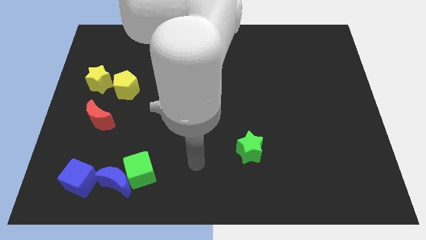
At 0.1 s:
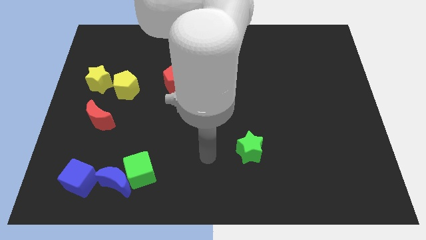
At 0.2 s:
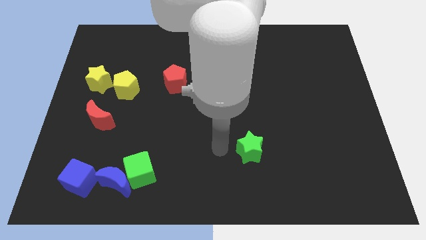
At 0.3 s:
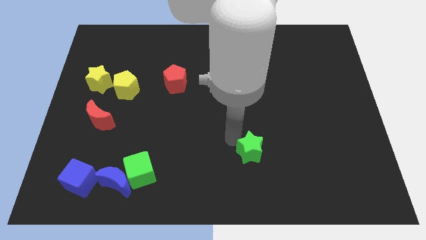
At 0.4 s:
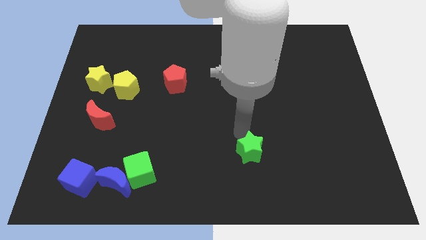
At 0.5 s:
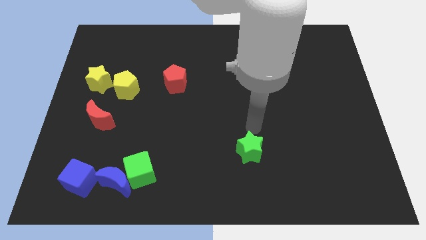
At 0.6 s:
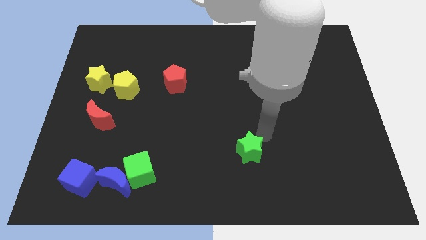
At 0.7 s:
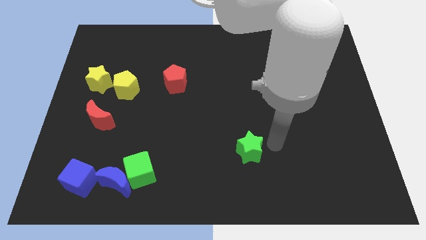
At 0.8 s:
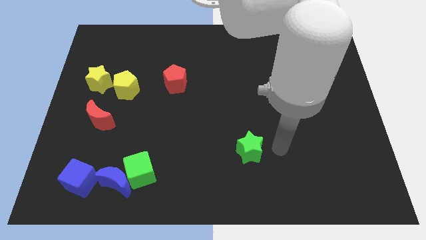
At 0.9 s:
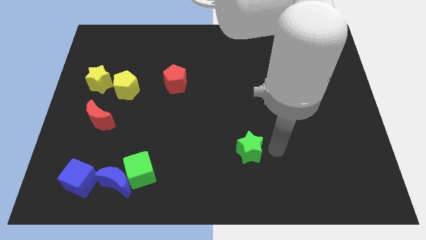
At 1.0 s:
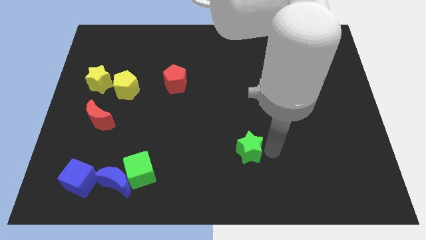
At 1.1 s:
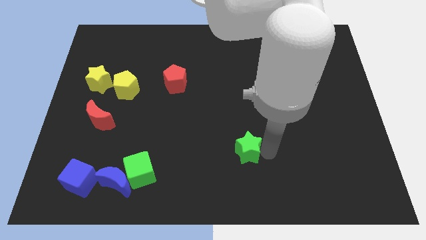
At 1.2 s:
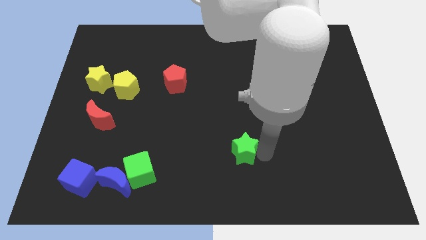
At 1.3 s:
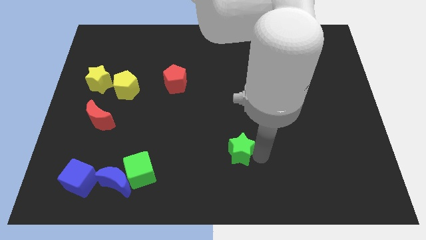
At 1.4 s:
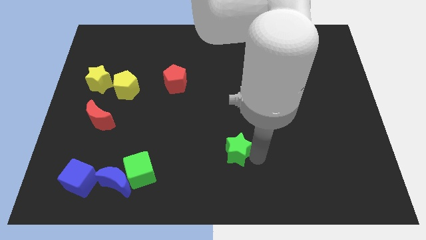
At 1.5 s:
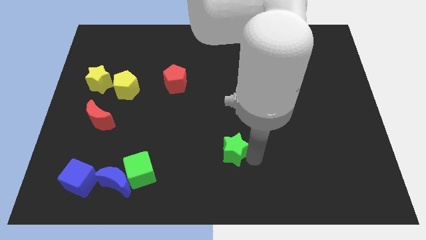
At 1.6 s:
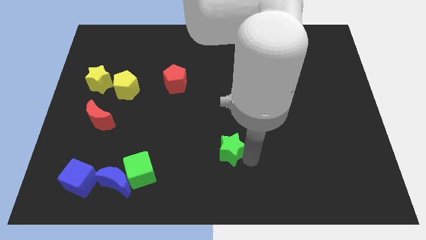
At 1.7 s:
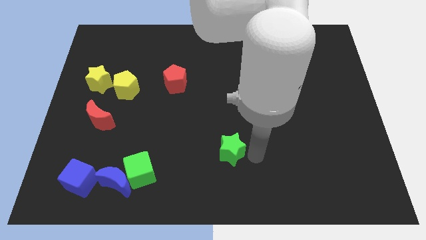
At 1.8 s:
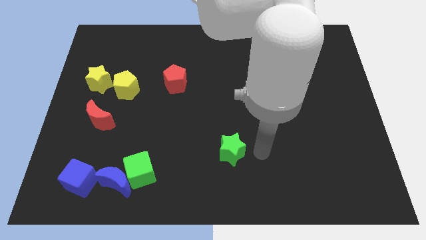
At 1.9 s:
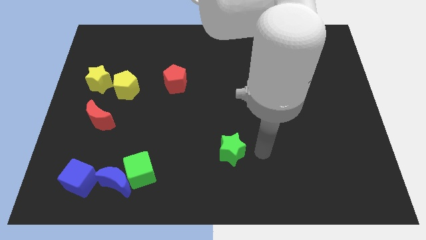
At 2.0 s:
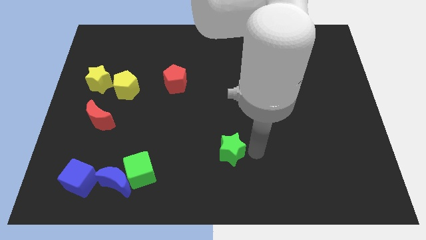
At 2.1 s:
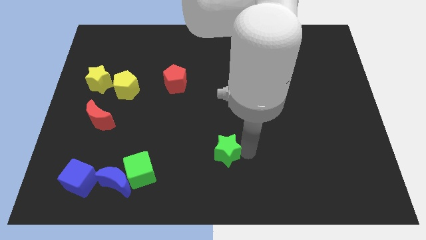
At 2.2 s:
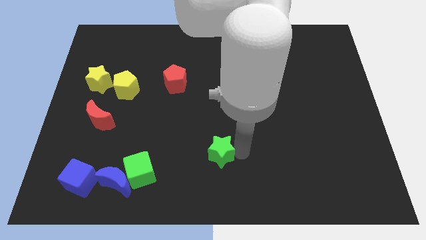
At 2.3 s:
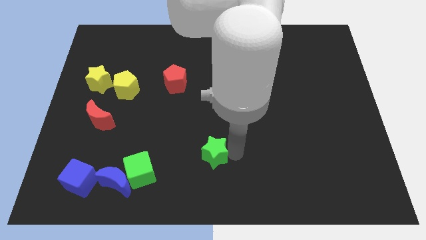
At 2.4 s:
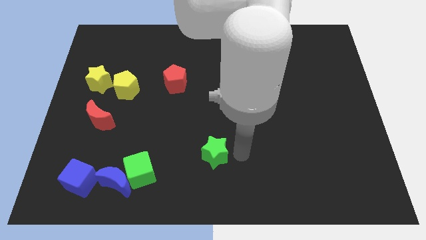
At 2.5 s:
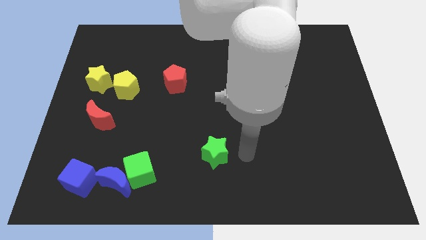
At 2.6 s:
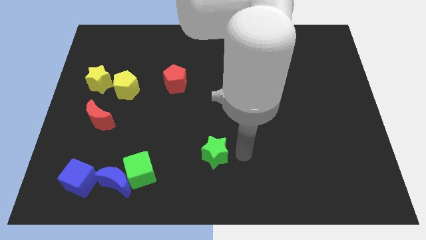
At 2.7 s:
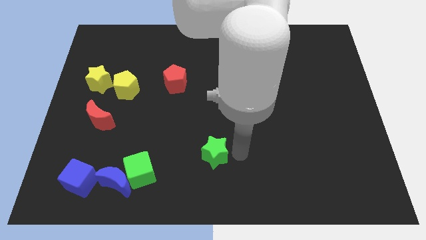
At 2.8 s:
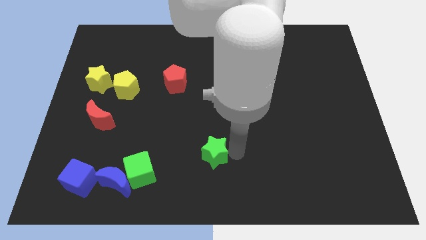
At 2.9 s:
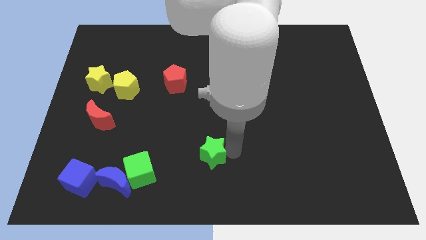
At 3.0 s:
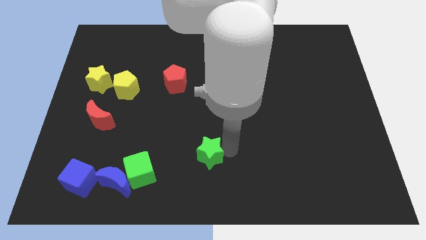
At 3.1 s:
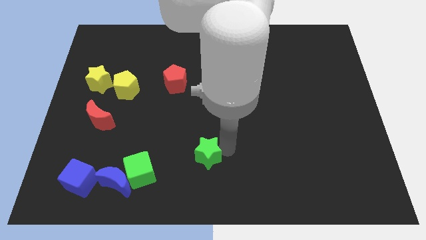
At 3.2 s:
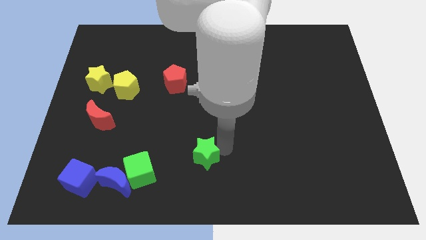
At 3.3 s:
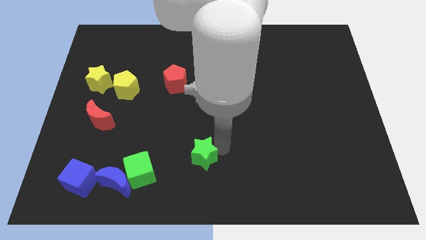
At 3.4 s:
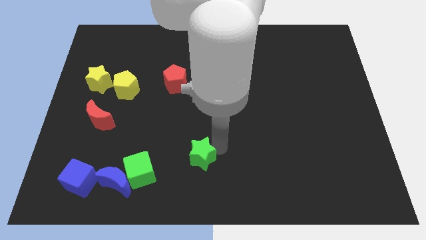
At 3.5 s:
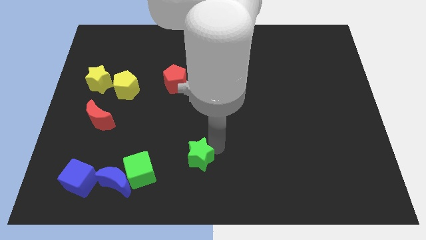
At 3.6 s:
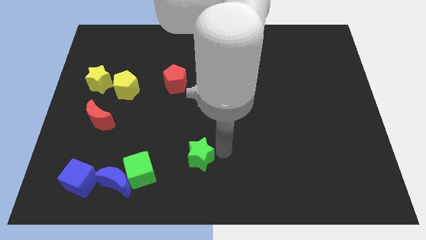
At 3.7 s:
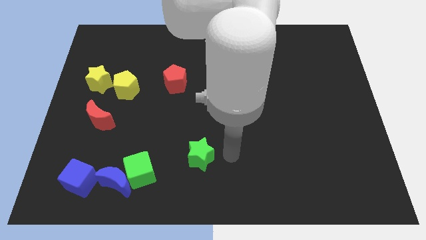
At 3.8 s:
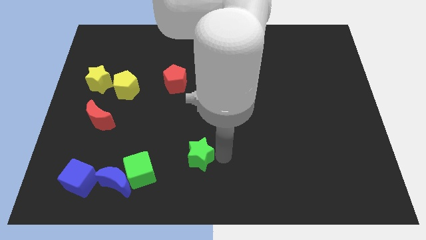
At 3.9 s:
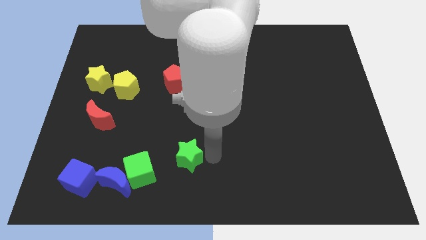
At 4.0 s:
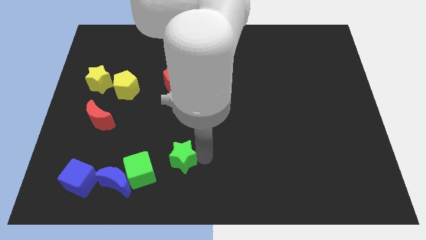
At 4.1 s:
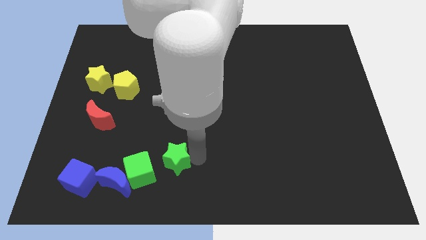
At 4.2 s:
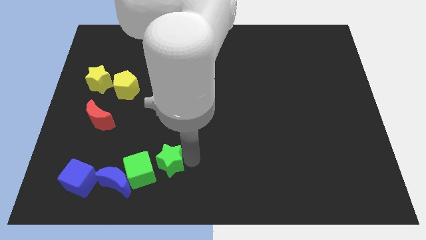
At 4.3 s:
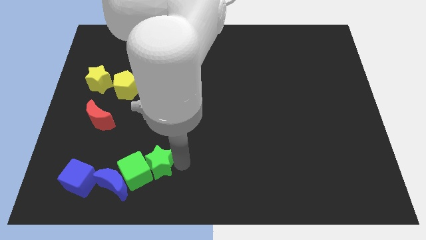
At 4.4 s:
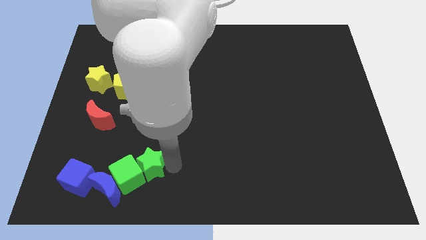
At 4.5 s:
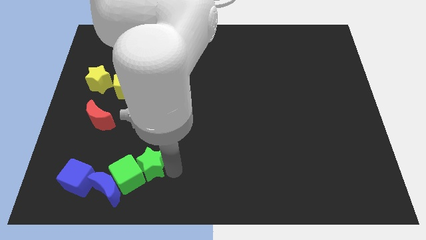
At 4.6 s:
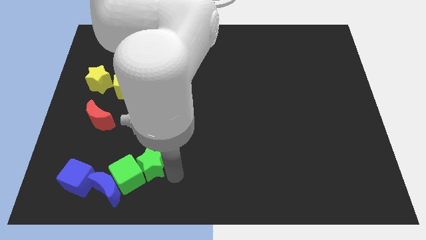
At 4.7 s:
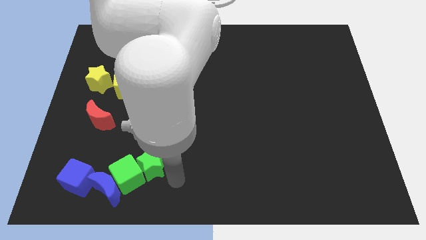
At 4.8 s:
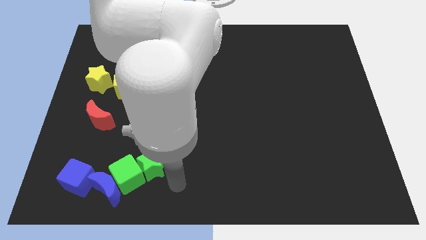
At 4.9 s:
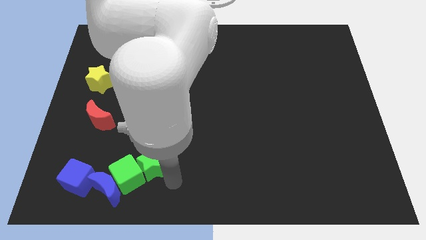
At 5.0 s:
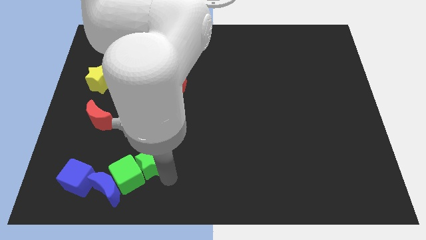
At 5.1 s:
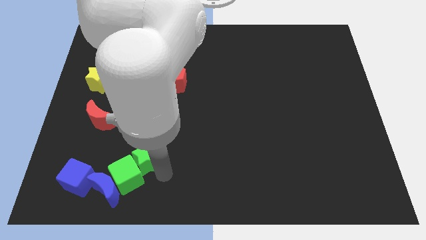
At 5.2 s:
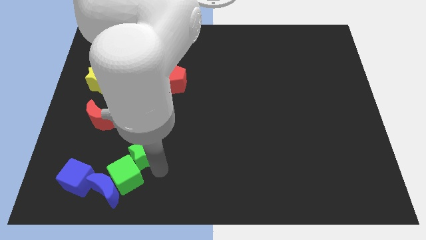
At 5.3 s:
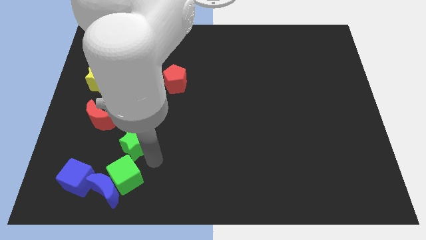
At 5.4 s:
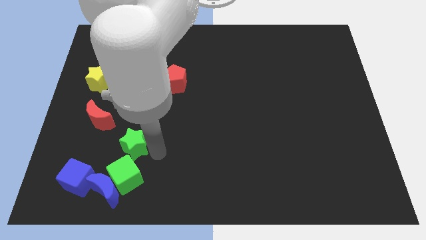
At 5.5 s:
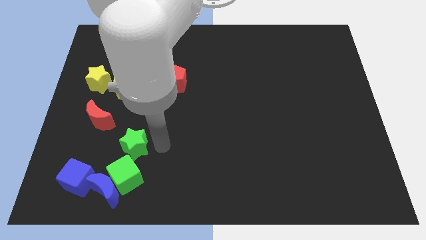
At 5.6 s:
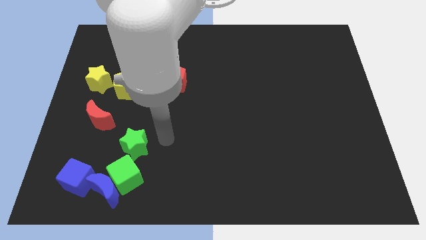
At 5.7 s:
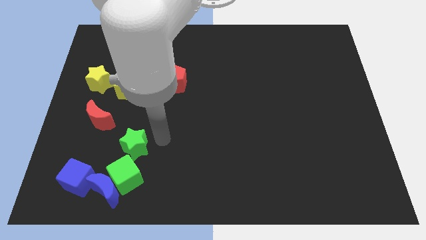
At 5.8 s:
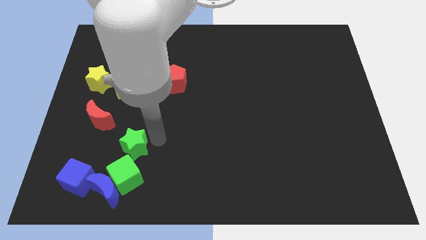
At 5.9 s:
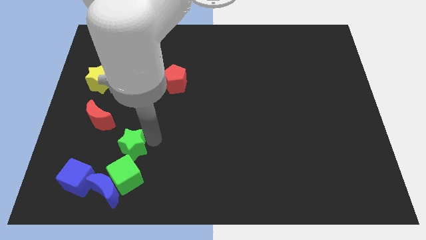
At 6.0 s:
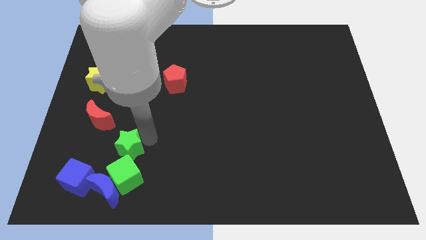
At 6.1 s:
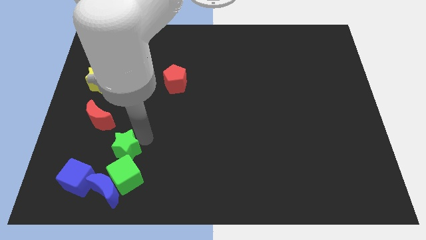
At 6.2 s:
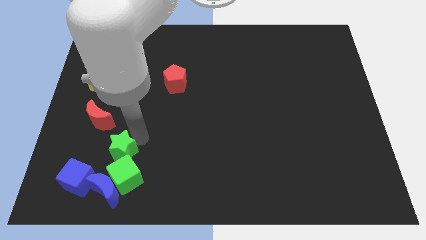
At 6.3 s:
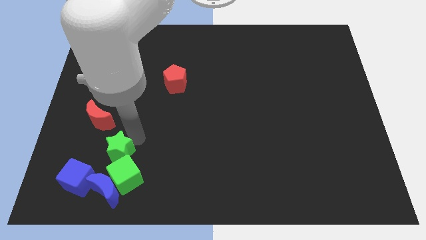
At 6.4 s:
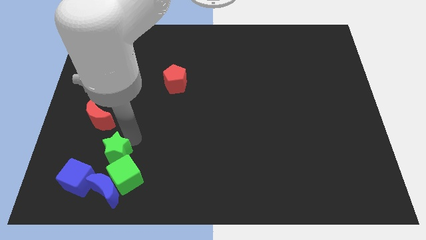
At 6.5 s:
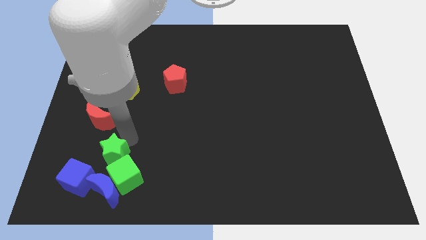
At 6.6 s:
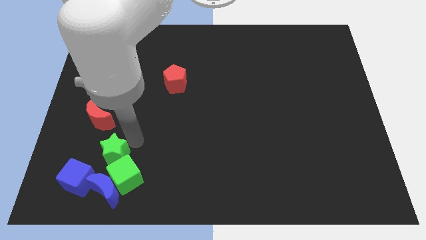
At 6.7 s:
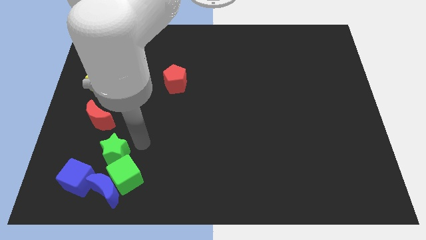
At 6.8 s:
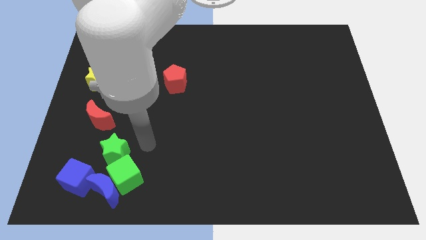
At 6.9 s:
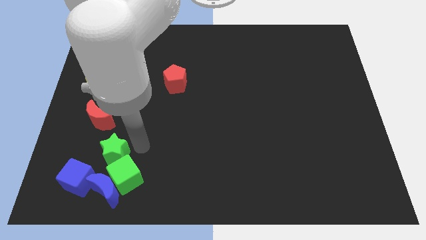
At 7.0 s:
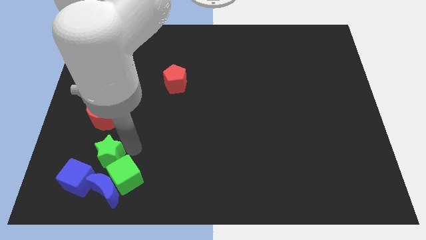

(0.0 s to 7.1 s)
push the green star to the bottom of the red moon

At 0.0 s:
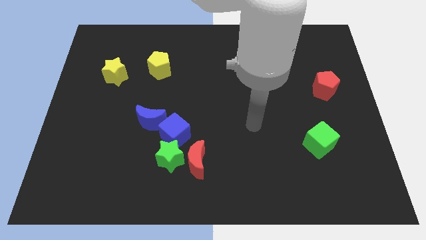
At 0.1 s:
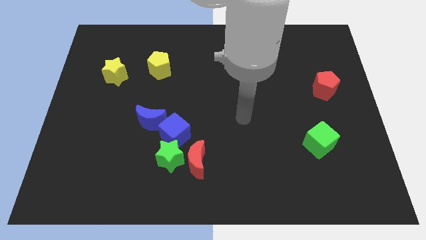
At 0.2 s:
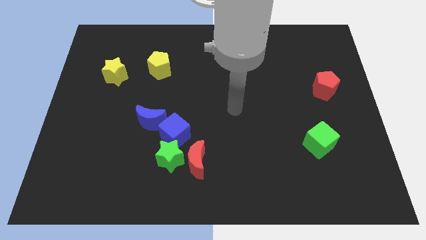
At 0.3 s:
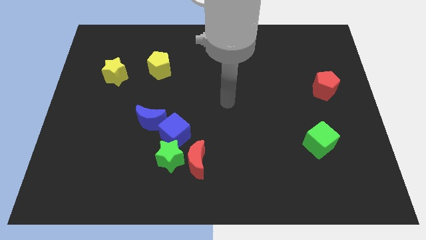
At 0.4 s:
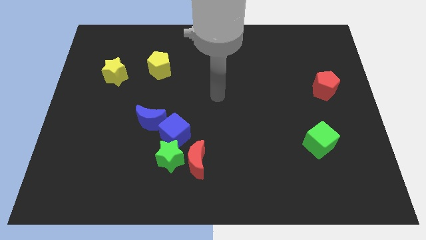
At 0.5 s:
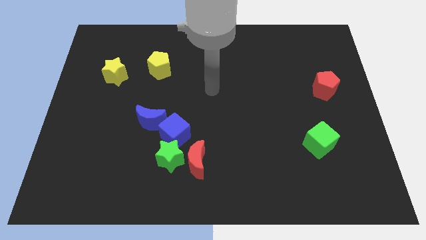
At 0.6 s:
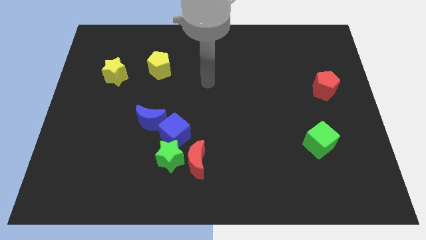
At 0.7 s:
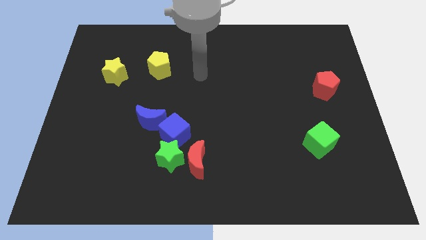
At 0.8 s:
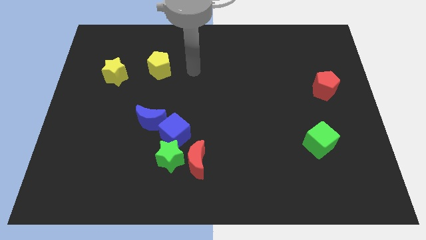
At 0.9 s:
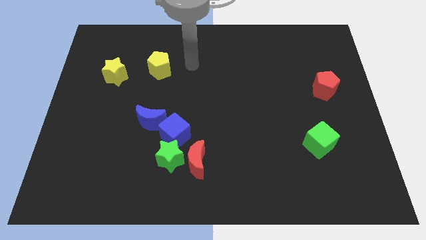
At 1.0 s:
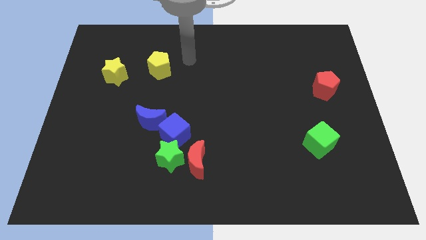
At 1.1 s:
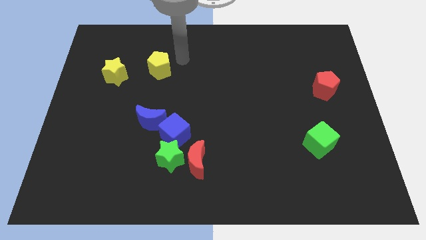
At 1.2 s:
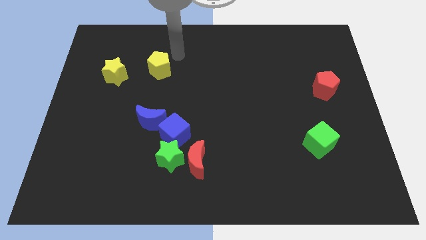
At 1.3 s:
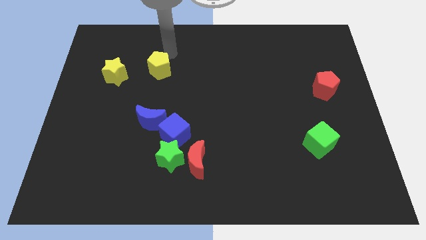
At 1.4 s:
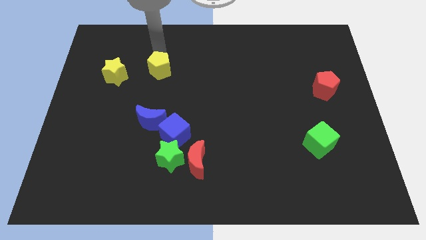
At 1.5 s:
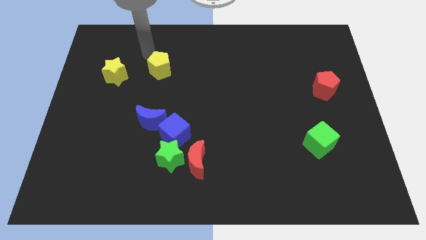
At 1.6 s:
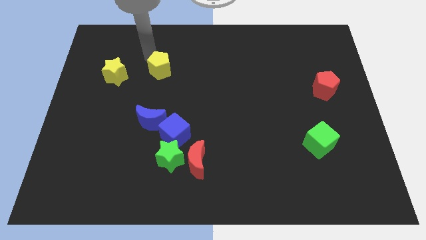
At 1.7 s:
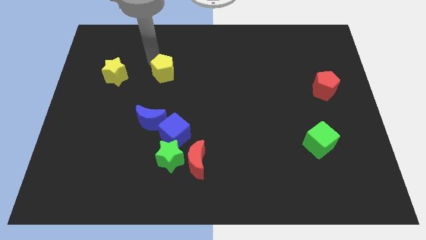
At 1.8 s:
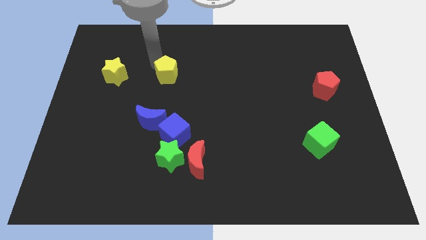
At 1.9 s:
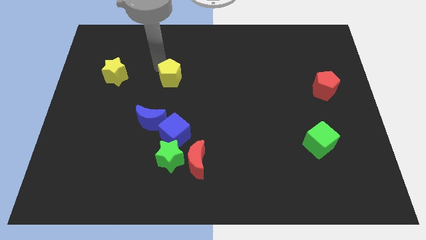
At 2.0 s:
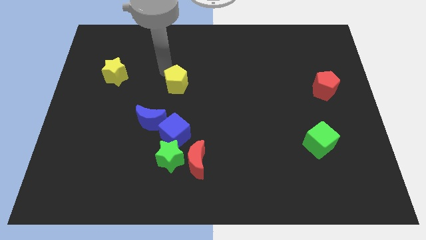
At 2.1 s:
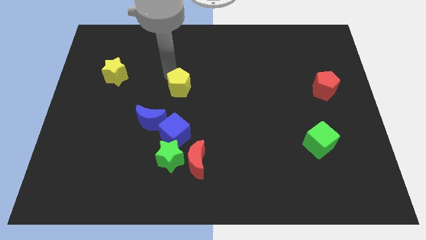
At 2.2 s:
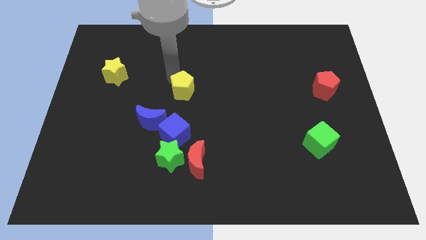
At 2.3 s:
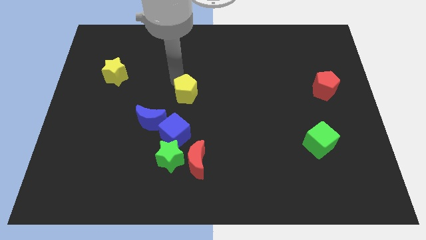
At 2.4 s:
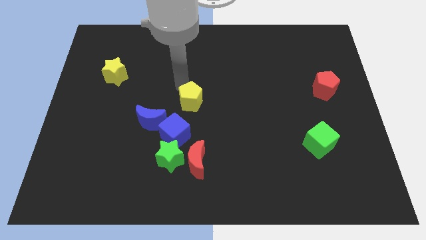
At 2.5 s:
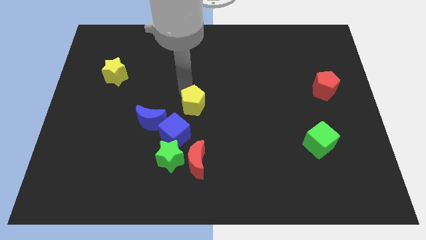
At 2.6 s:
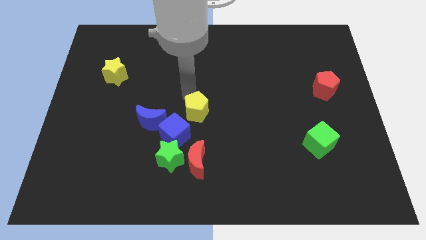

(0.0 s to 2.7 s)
put the yellow pentagon to the right of the blue moon
